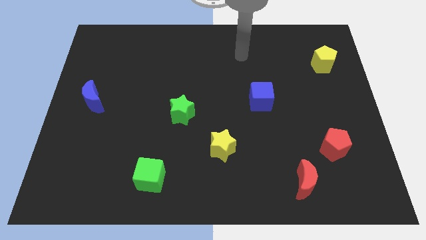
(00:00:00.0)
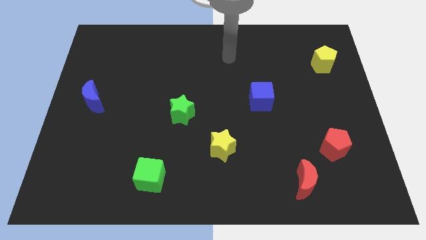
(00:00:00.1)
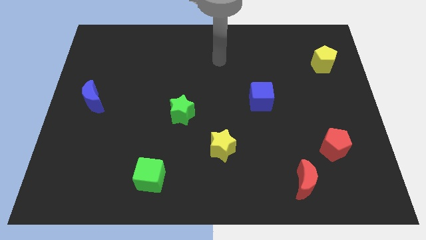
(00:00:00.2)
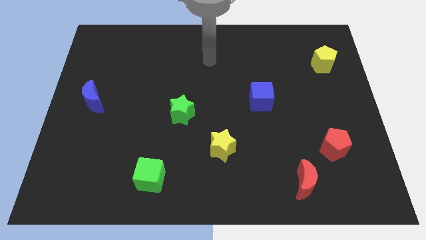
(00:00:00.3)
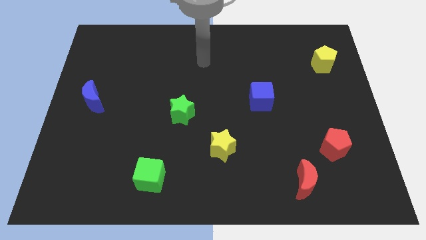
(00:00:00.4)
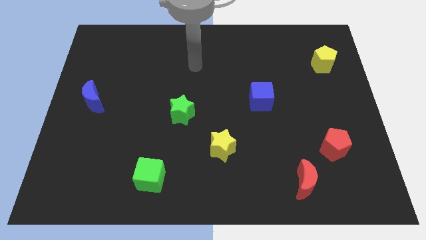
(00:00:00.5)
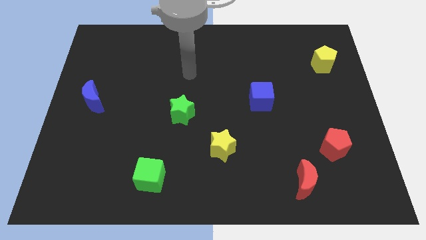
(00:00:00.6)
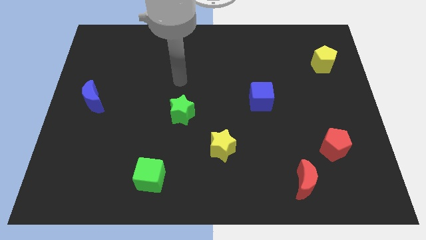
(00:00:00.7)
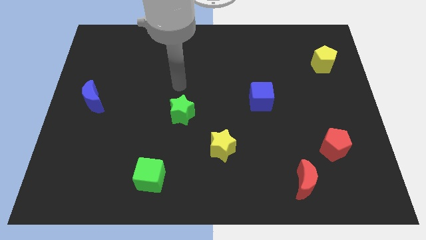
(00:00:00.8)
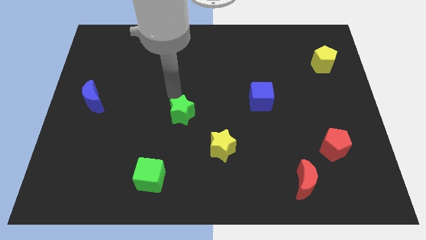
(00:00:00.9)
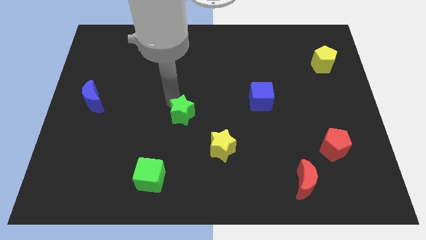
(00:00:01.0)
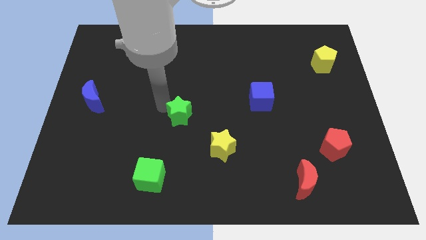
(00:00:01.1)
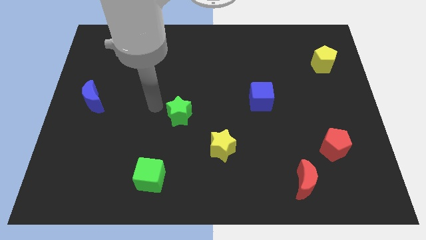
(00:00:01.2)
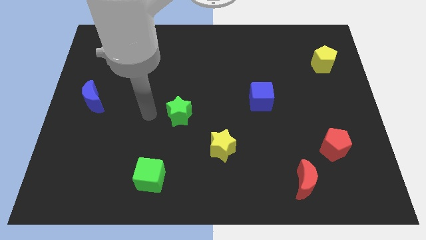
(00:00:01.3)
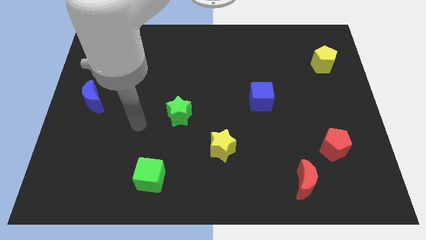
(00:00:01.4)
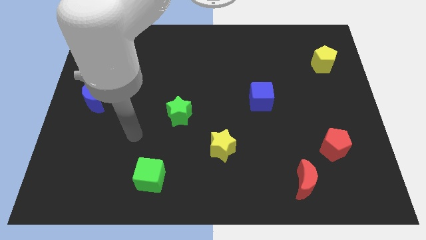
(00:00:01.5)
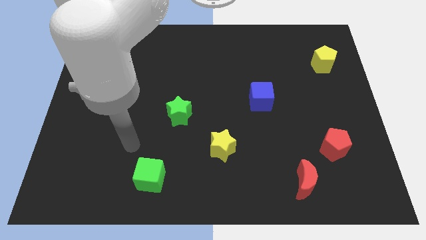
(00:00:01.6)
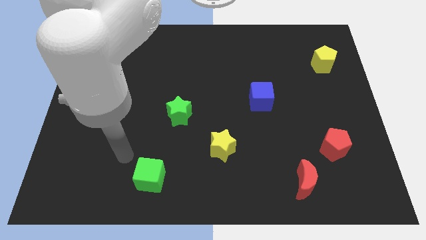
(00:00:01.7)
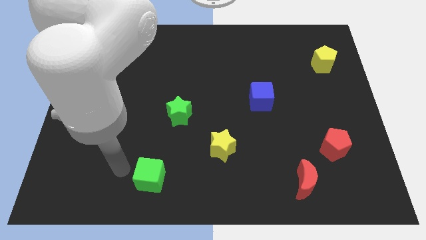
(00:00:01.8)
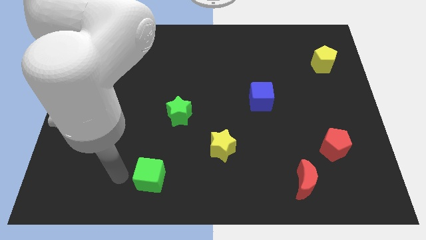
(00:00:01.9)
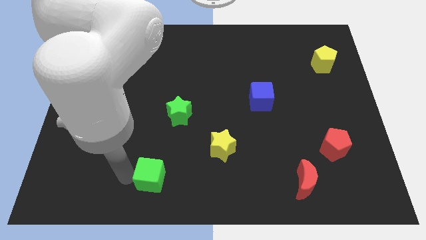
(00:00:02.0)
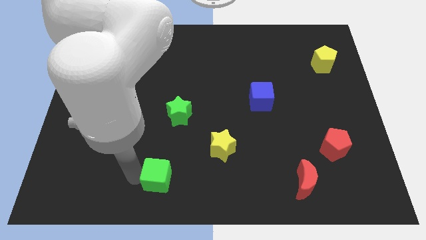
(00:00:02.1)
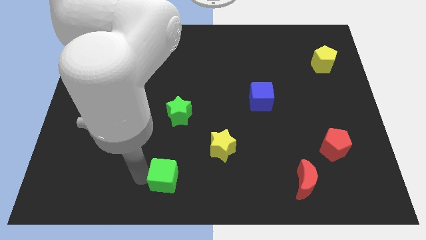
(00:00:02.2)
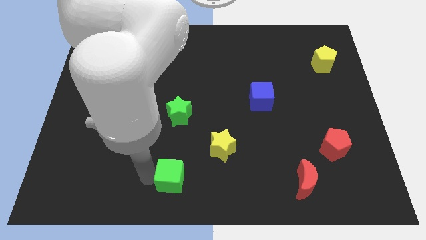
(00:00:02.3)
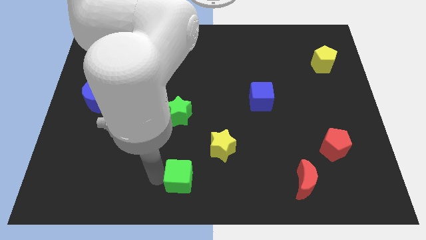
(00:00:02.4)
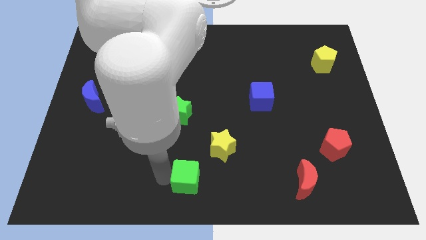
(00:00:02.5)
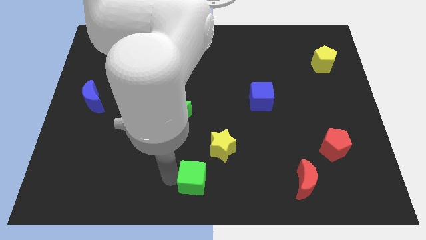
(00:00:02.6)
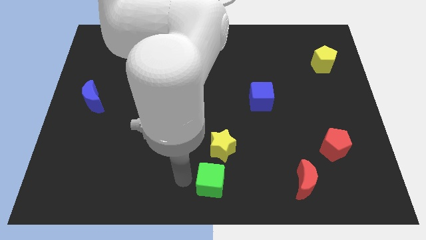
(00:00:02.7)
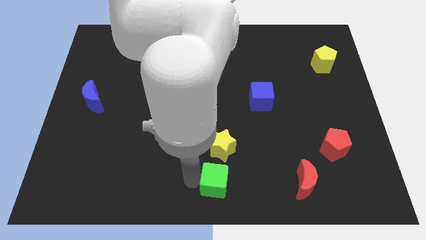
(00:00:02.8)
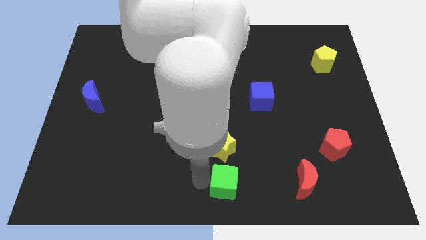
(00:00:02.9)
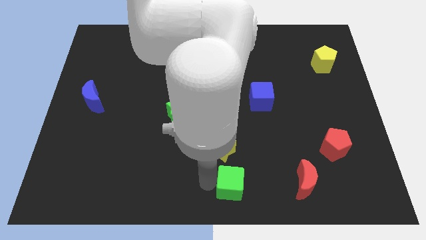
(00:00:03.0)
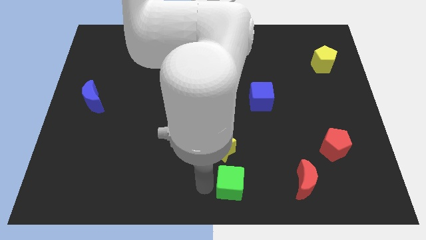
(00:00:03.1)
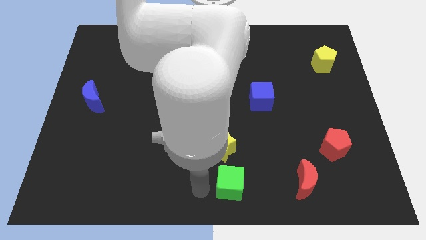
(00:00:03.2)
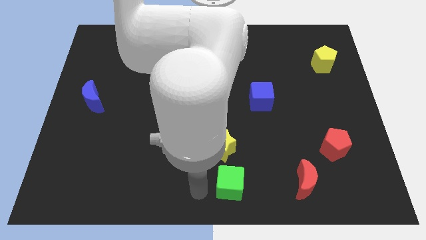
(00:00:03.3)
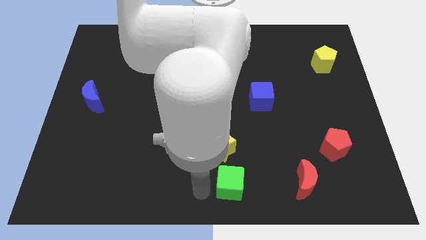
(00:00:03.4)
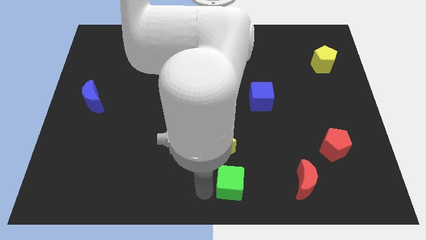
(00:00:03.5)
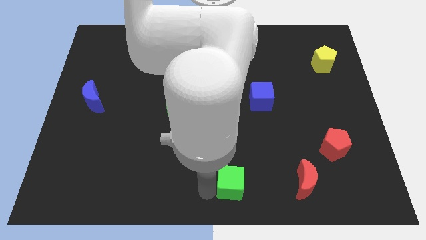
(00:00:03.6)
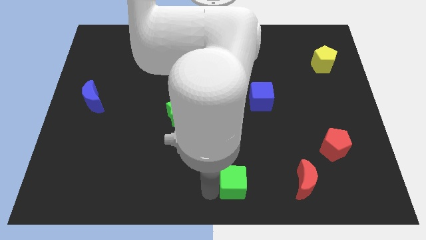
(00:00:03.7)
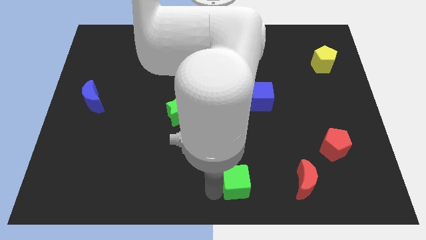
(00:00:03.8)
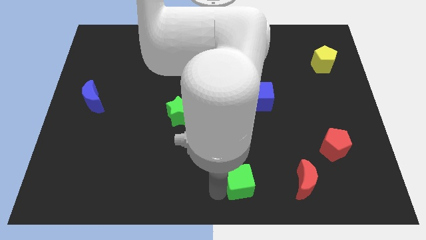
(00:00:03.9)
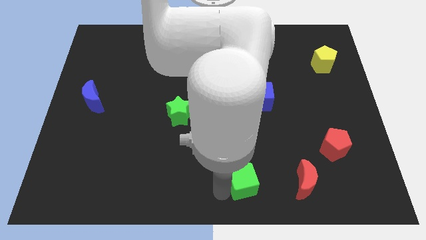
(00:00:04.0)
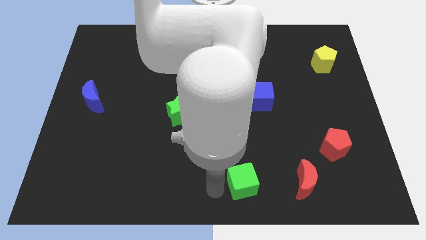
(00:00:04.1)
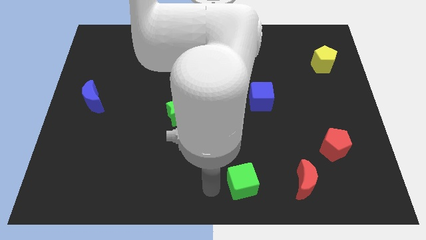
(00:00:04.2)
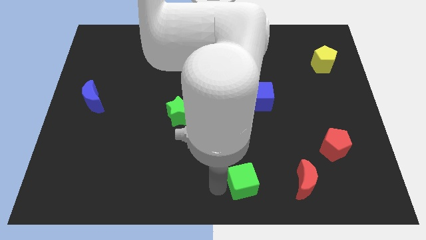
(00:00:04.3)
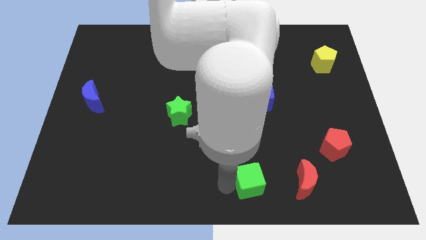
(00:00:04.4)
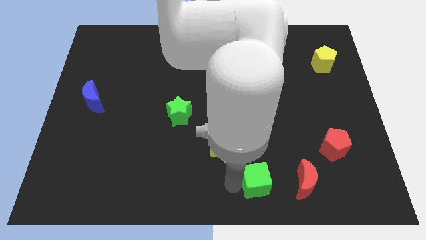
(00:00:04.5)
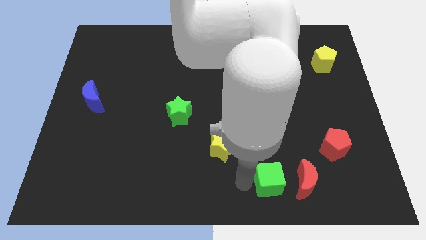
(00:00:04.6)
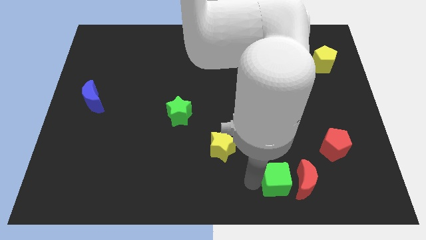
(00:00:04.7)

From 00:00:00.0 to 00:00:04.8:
slide the green cube to the red moon

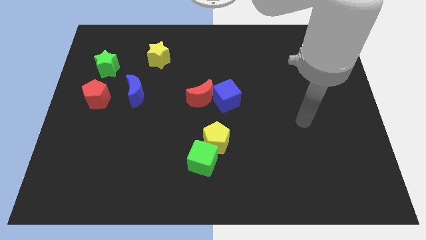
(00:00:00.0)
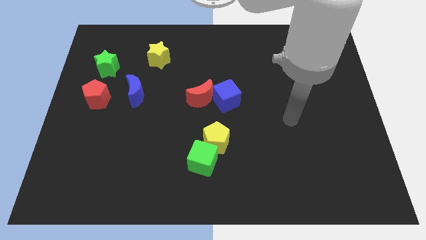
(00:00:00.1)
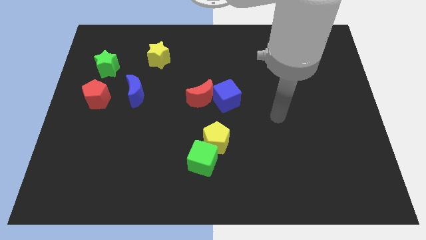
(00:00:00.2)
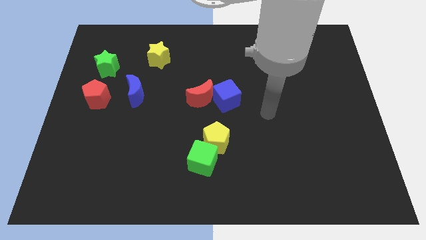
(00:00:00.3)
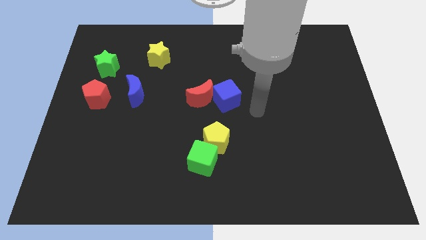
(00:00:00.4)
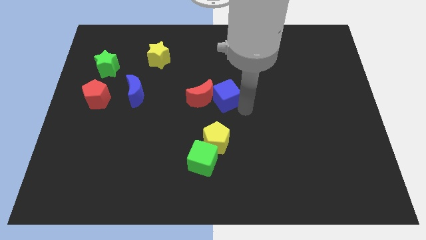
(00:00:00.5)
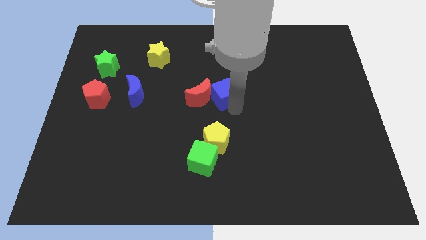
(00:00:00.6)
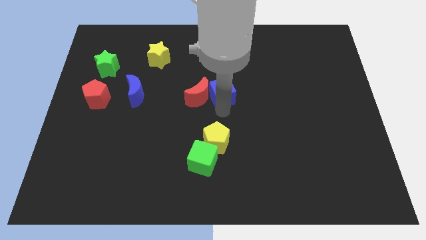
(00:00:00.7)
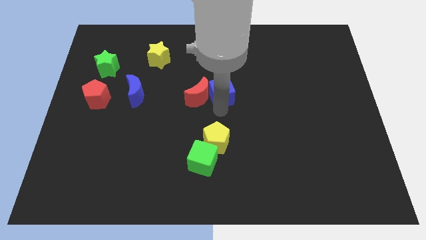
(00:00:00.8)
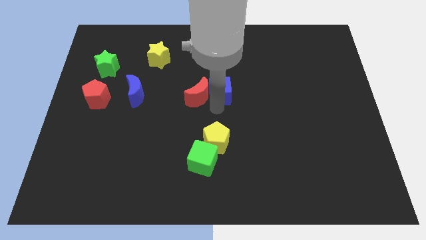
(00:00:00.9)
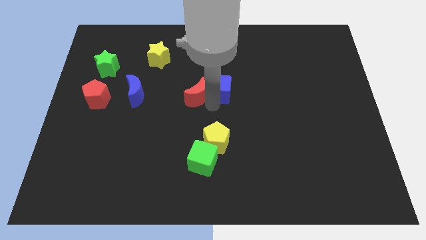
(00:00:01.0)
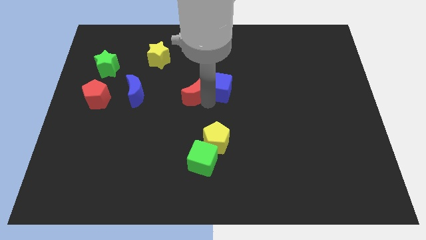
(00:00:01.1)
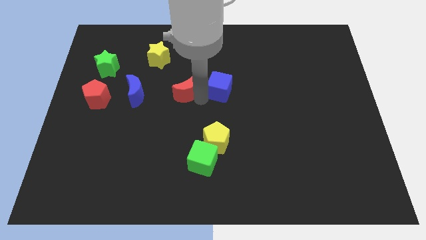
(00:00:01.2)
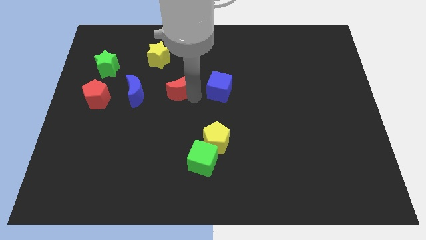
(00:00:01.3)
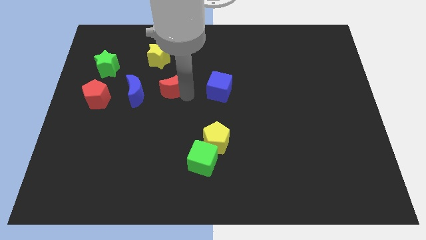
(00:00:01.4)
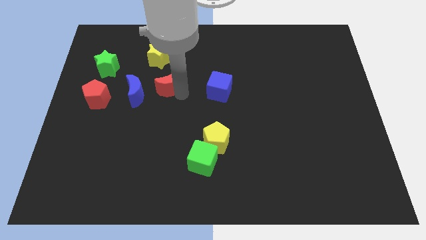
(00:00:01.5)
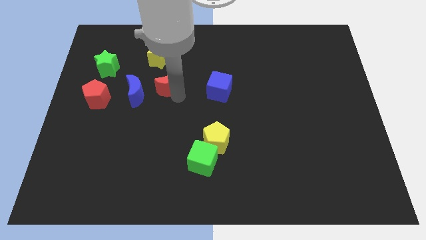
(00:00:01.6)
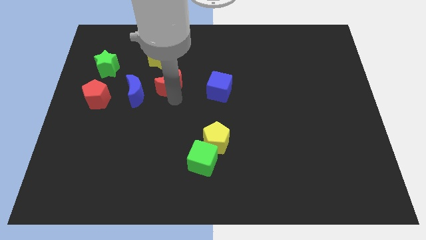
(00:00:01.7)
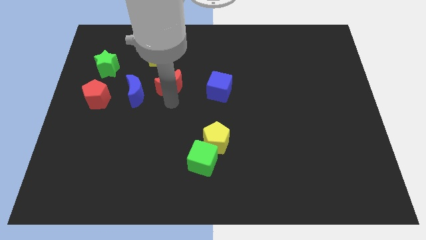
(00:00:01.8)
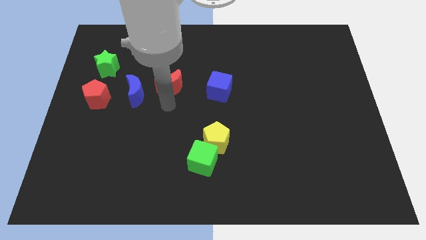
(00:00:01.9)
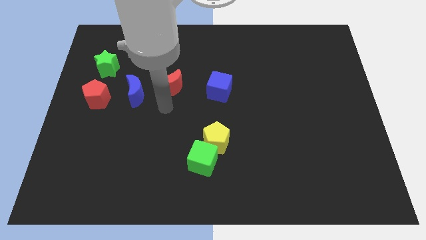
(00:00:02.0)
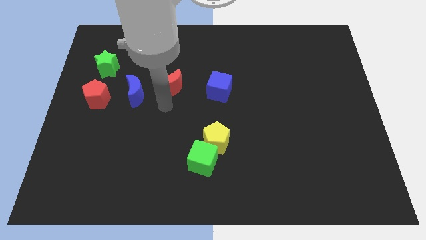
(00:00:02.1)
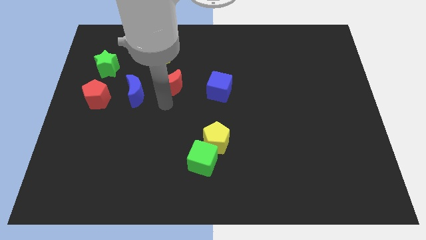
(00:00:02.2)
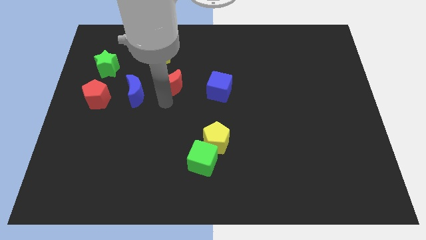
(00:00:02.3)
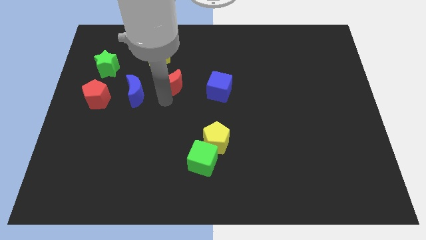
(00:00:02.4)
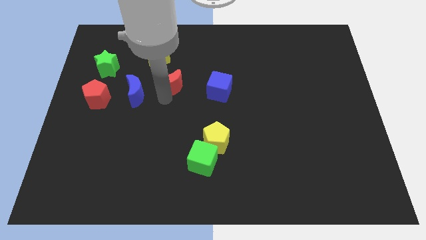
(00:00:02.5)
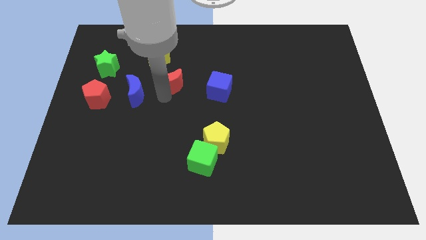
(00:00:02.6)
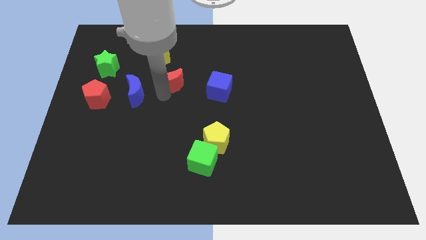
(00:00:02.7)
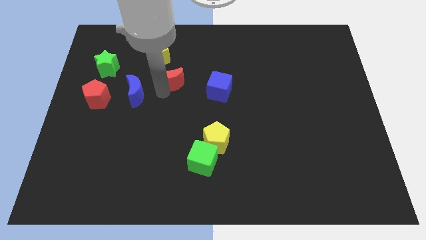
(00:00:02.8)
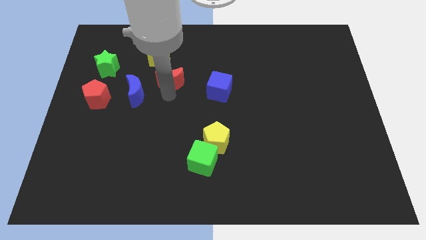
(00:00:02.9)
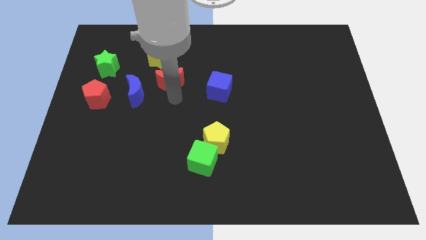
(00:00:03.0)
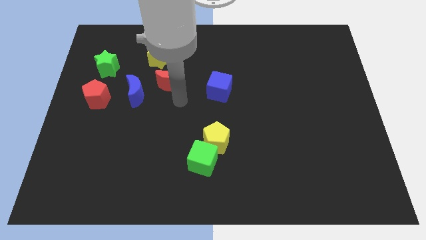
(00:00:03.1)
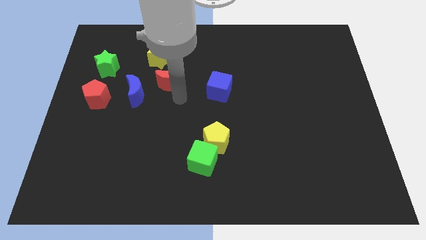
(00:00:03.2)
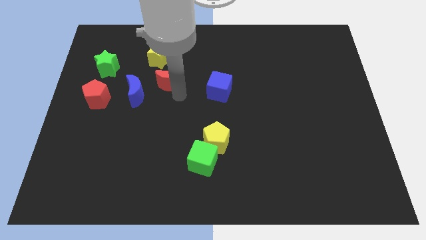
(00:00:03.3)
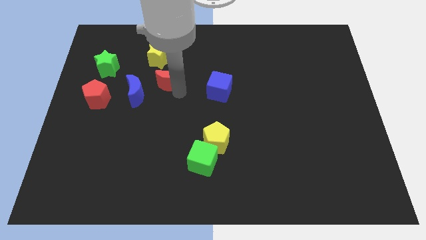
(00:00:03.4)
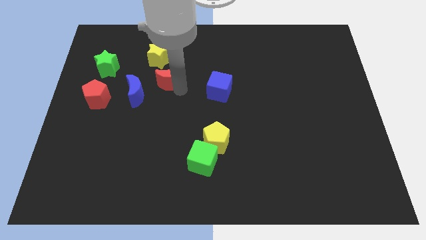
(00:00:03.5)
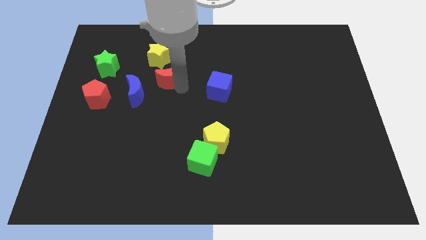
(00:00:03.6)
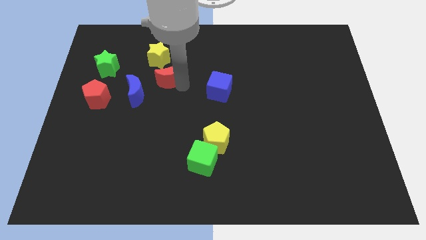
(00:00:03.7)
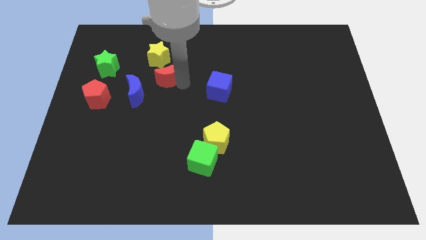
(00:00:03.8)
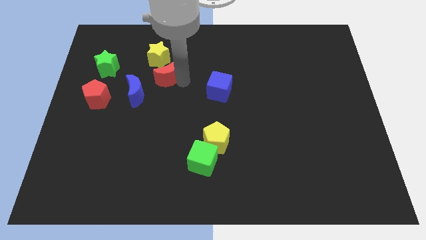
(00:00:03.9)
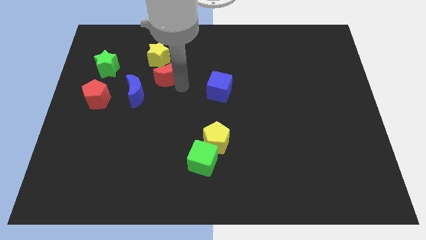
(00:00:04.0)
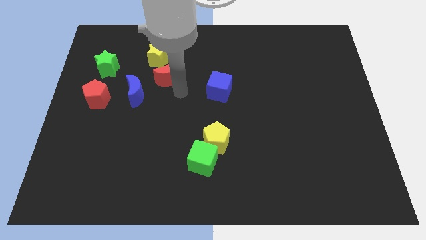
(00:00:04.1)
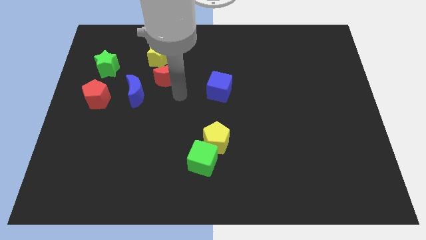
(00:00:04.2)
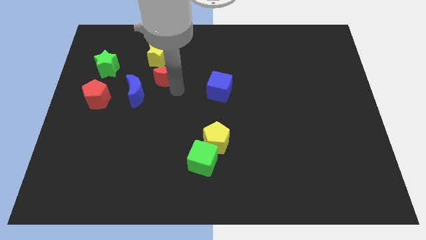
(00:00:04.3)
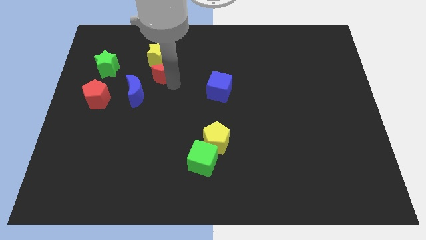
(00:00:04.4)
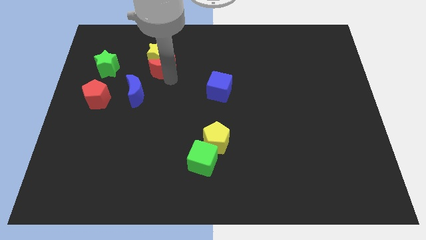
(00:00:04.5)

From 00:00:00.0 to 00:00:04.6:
put the red moon close to the yellow star
